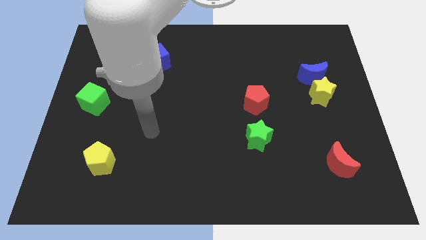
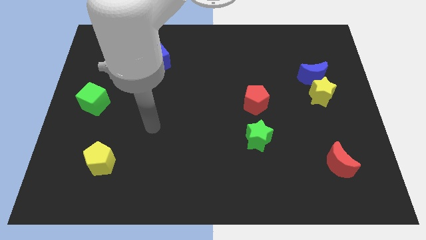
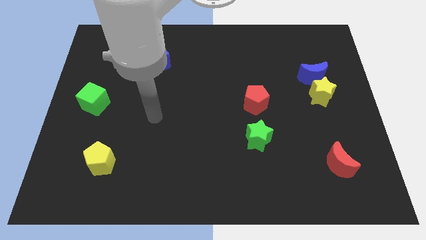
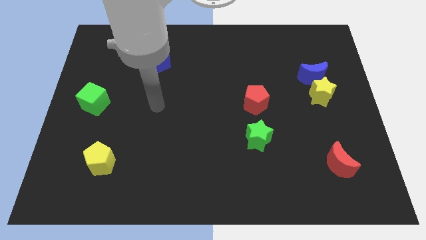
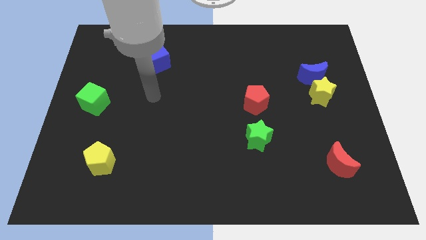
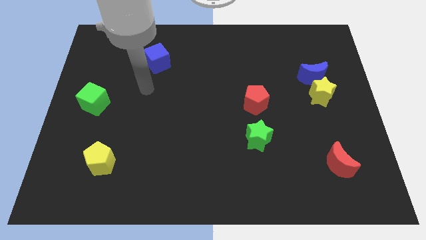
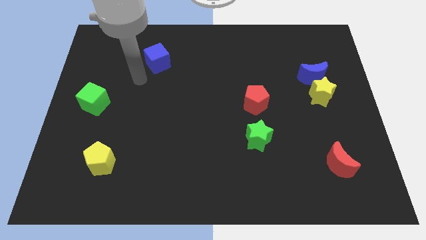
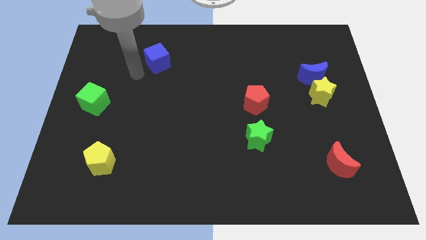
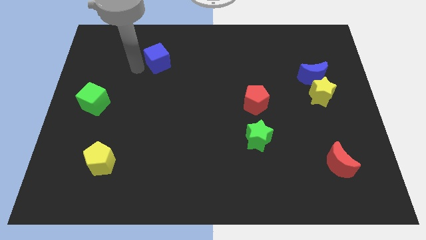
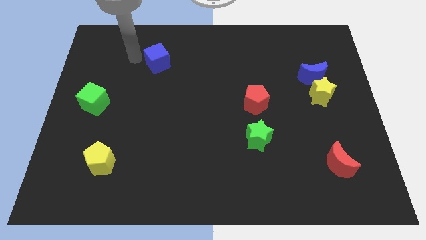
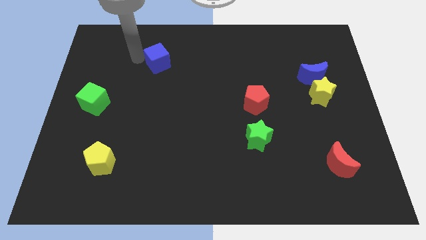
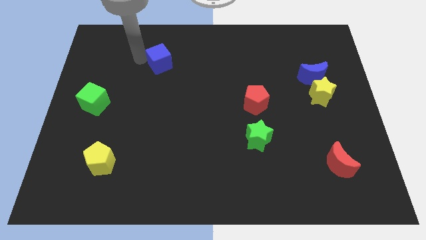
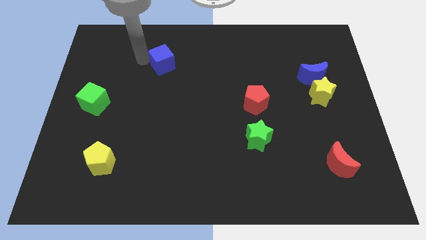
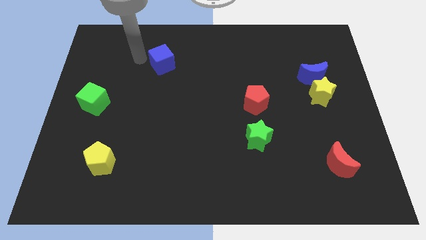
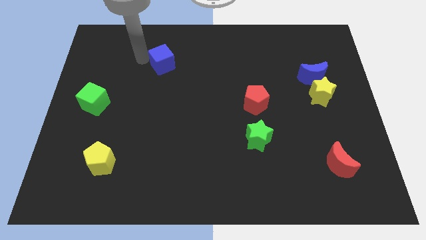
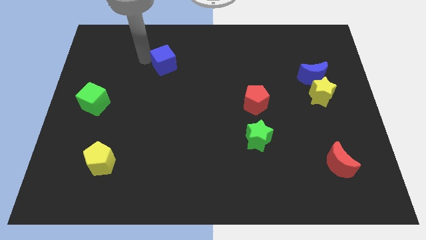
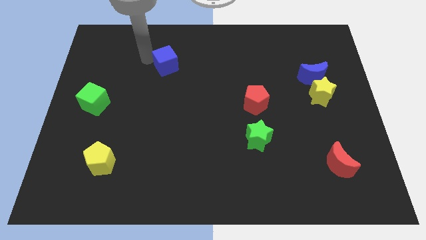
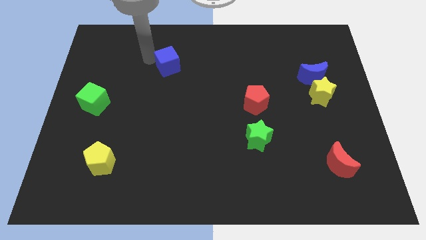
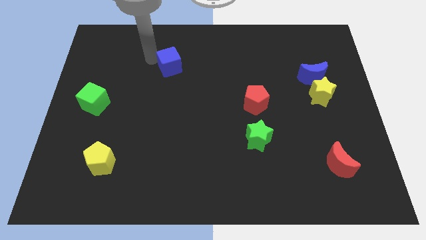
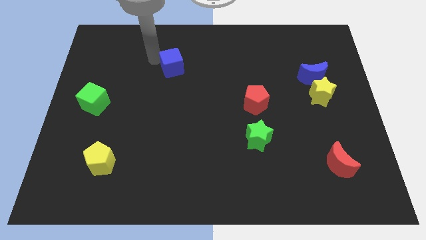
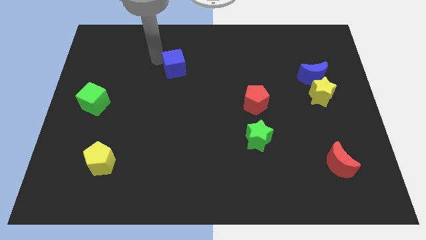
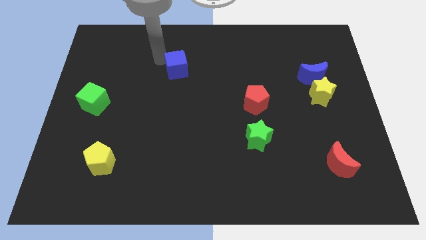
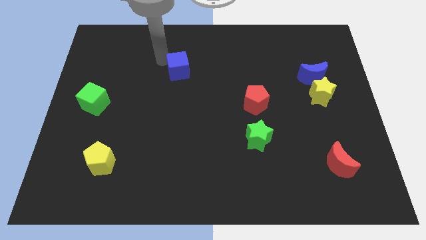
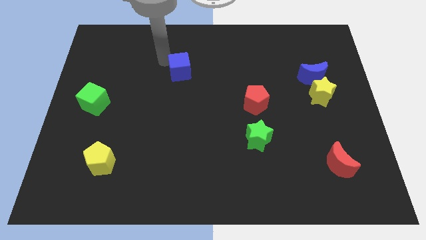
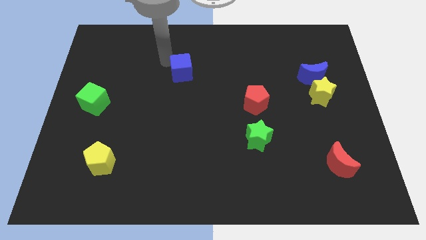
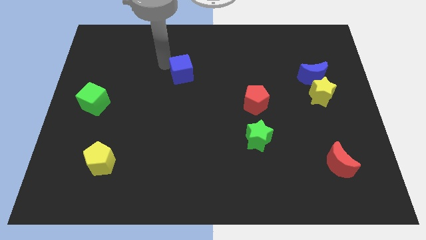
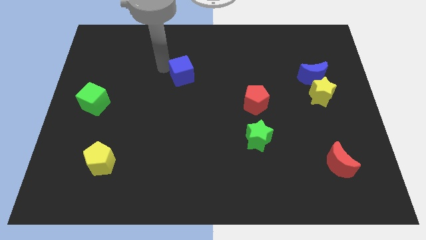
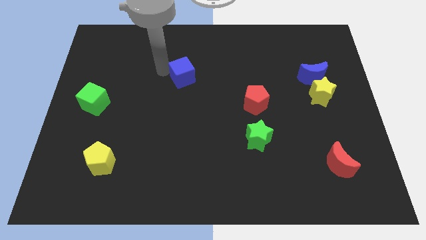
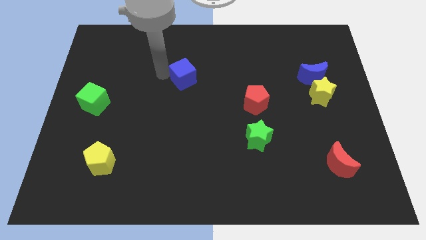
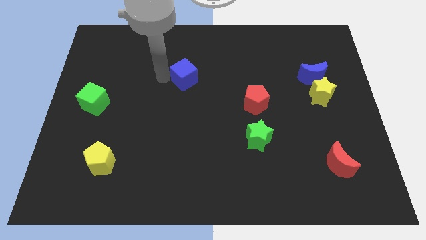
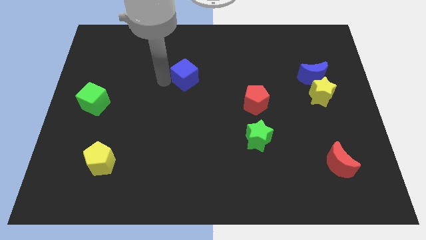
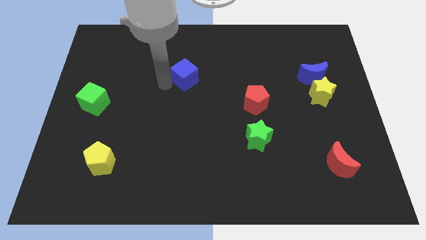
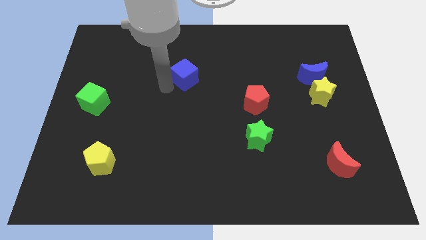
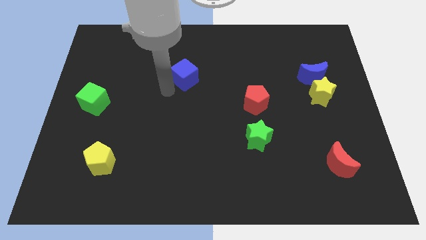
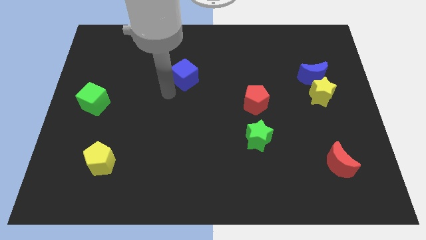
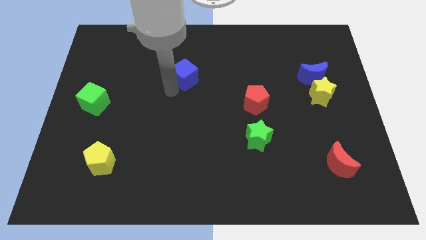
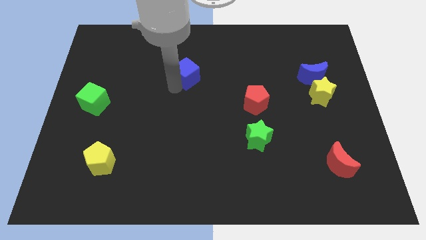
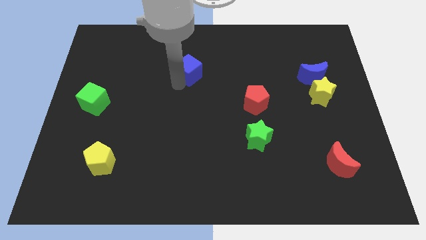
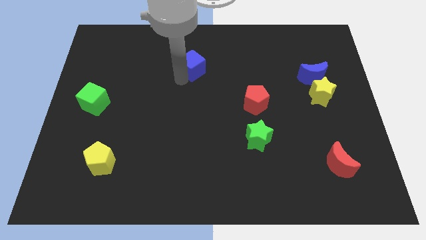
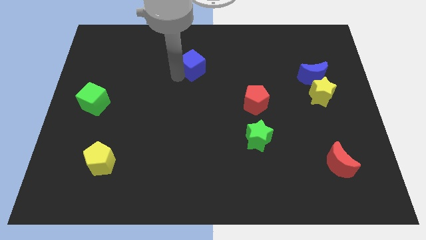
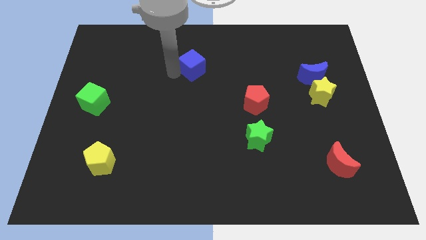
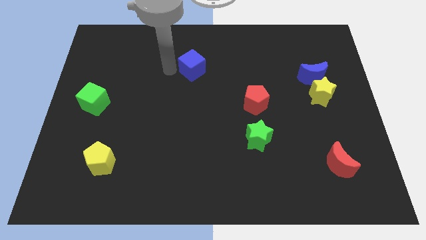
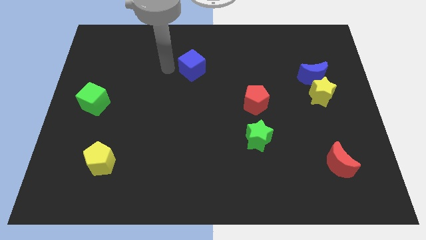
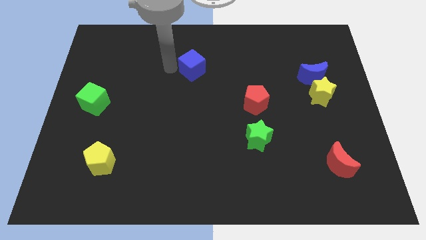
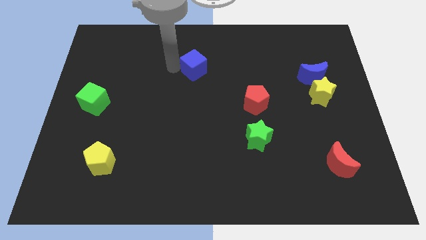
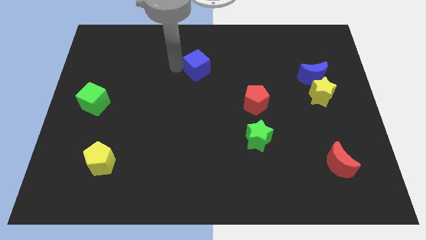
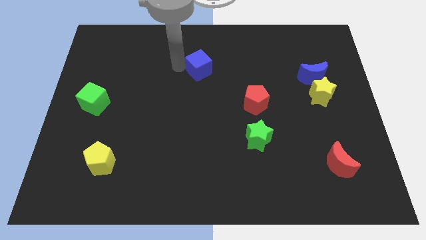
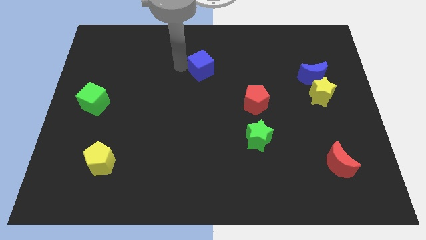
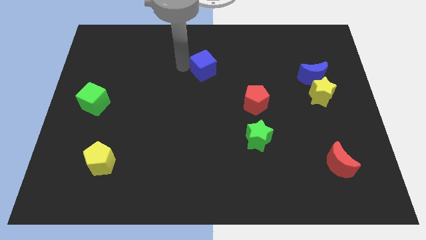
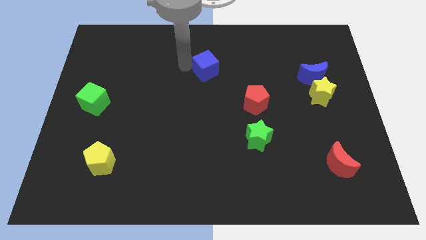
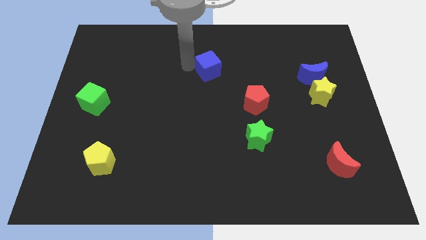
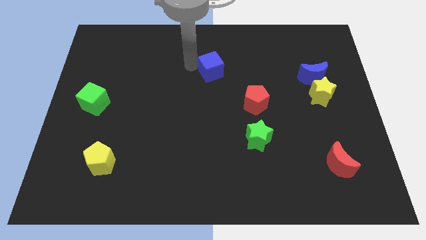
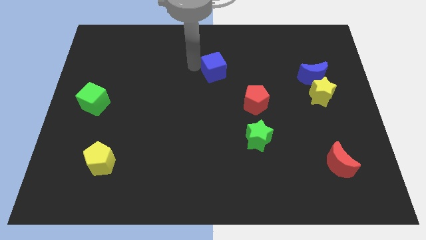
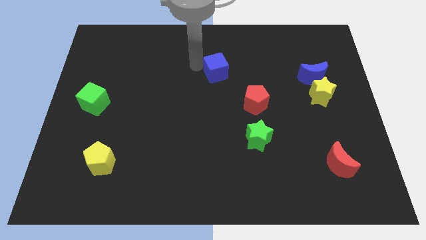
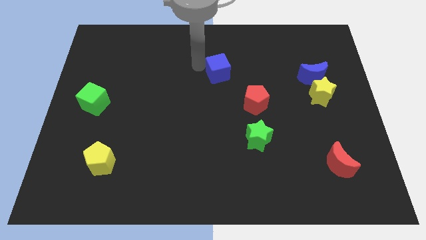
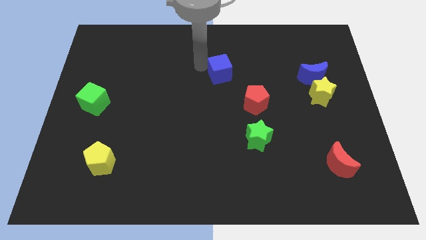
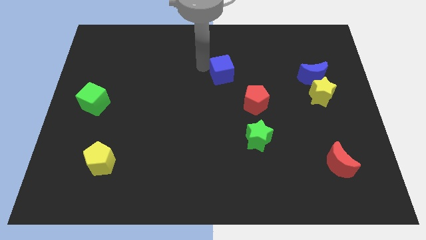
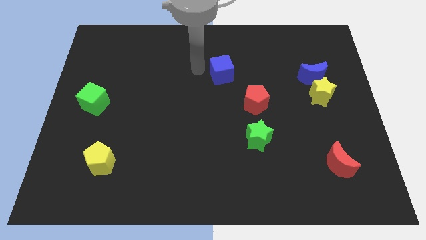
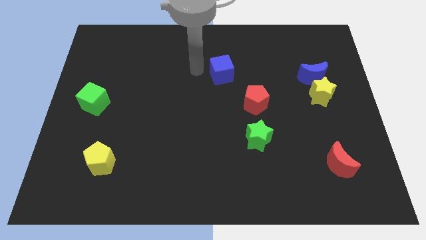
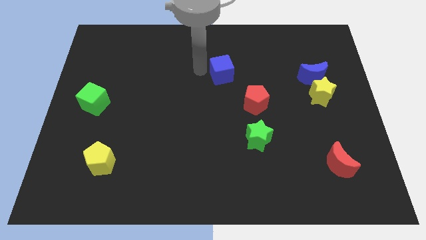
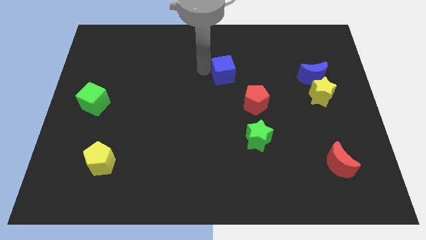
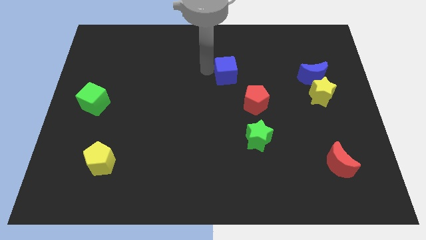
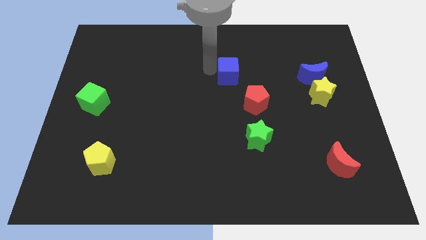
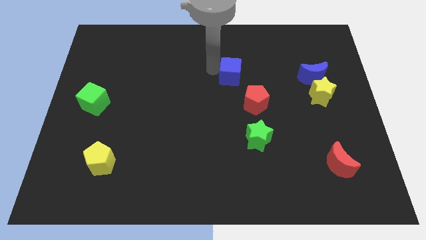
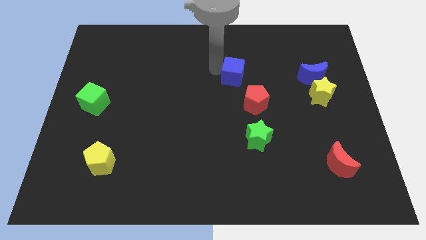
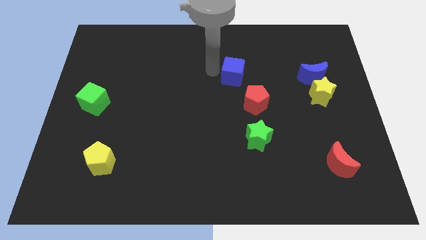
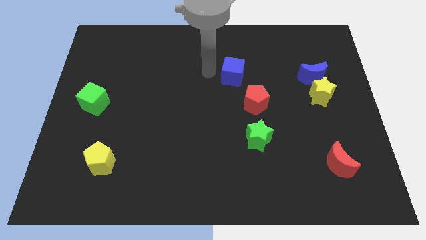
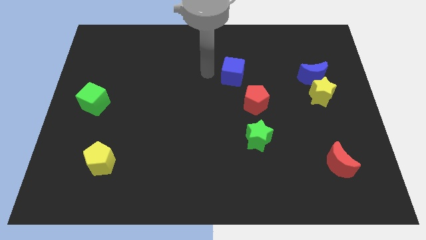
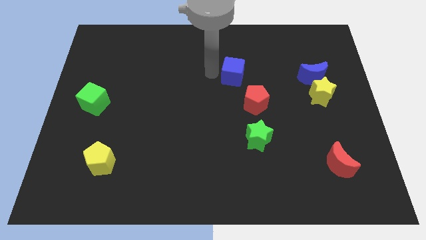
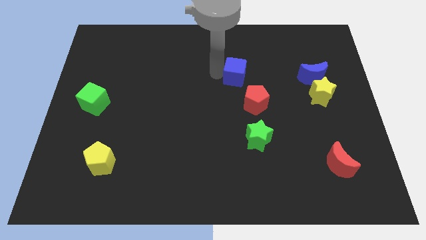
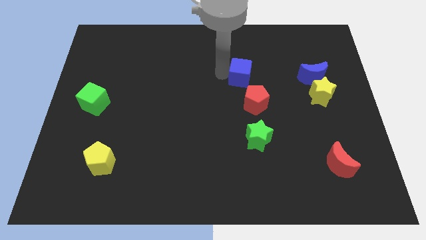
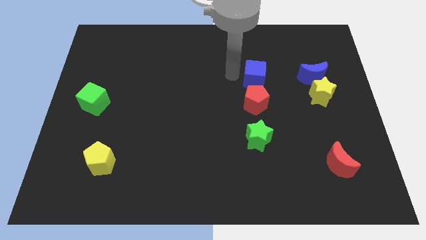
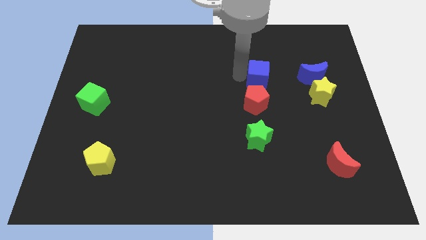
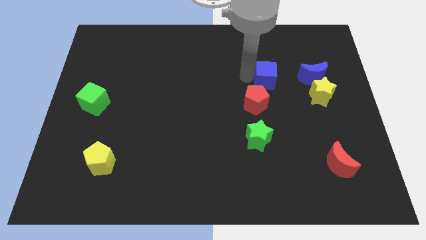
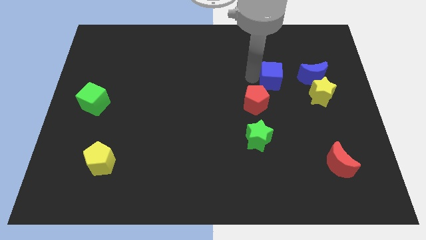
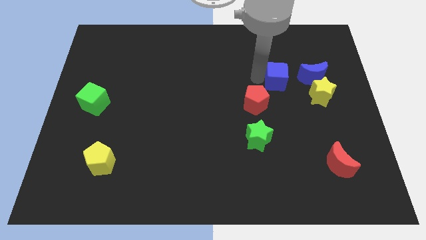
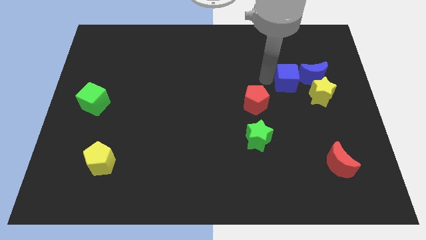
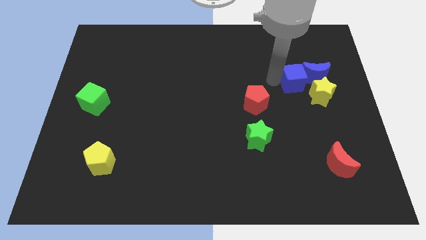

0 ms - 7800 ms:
push the blue cube close to the blue moon
